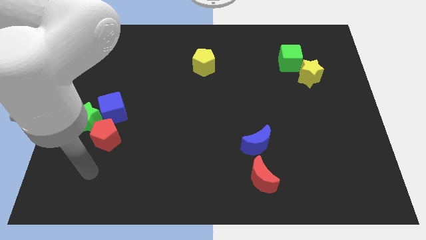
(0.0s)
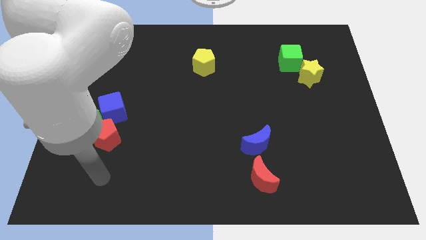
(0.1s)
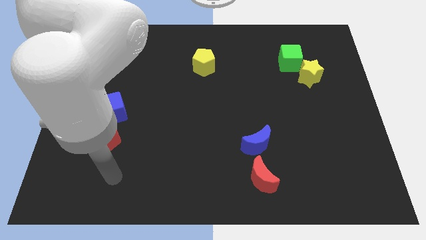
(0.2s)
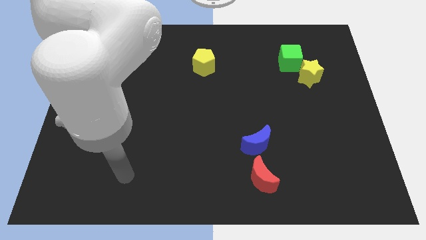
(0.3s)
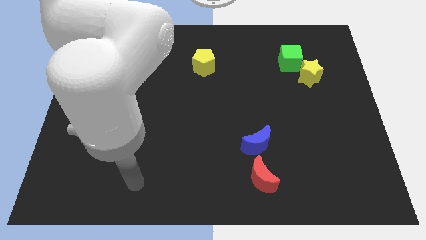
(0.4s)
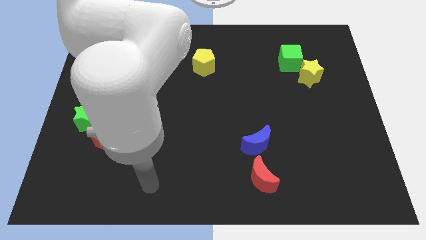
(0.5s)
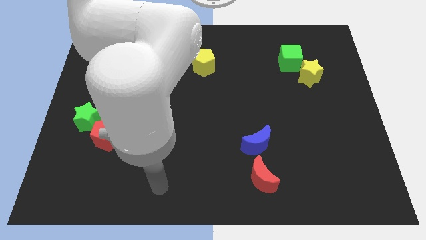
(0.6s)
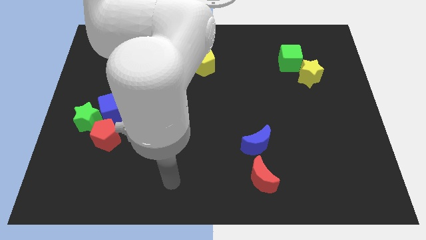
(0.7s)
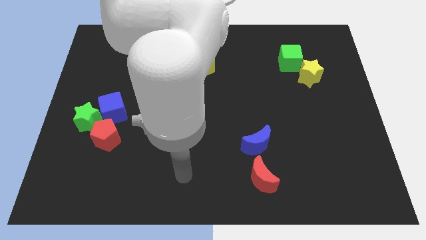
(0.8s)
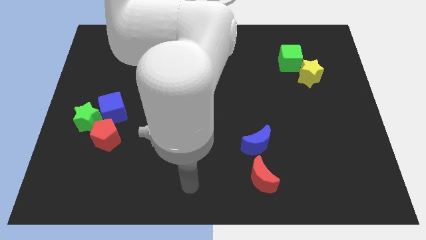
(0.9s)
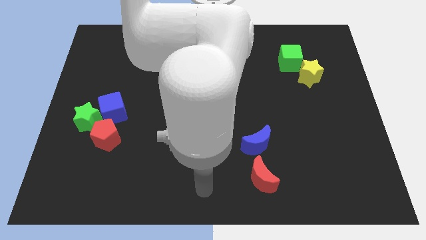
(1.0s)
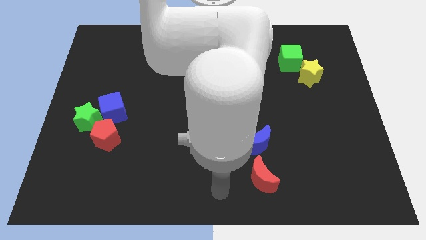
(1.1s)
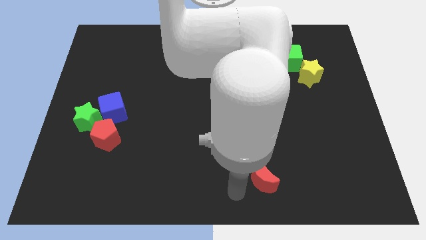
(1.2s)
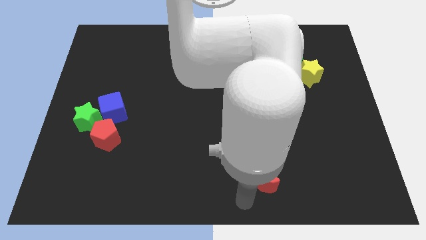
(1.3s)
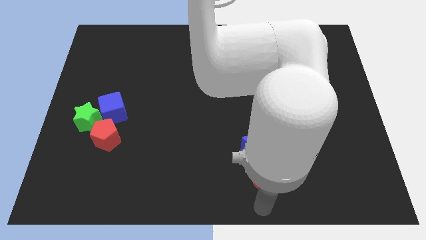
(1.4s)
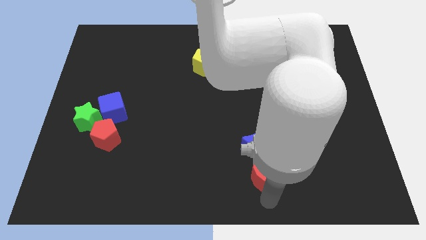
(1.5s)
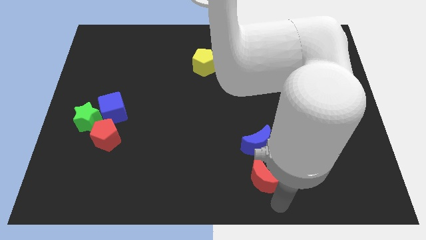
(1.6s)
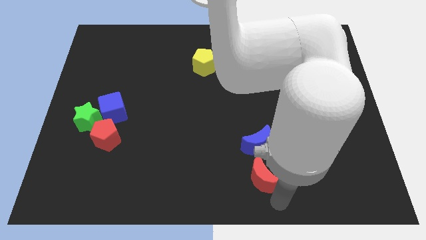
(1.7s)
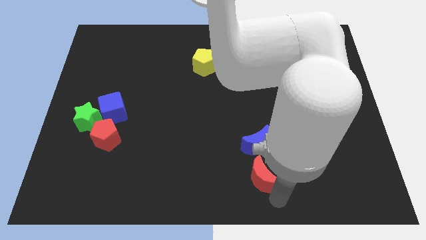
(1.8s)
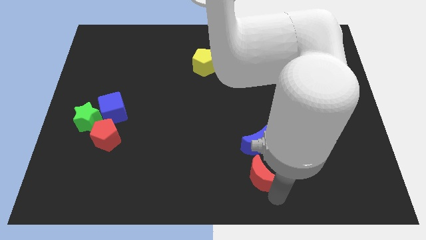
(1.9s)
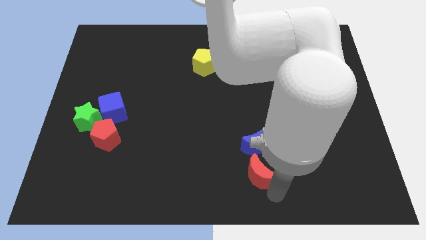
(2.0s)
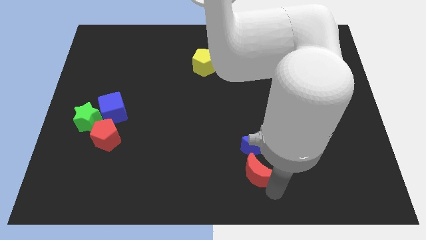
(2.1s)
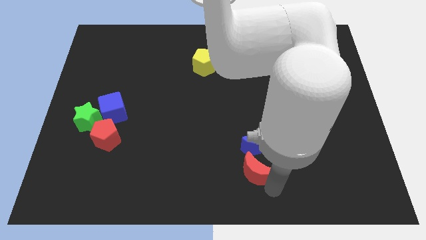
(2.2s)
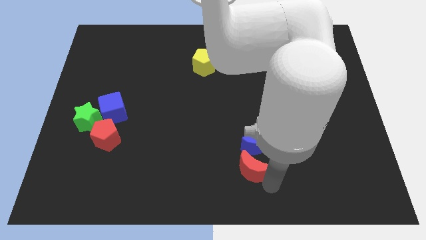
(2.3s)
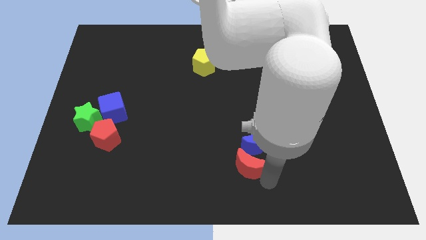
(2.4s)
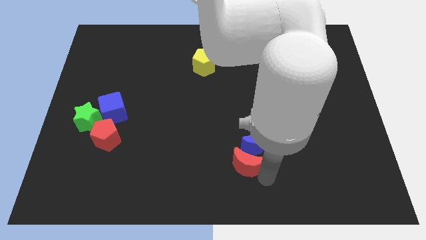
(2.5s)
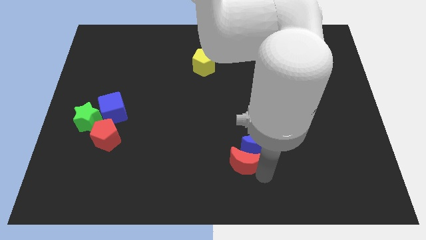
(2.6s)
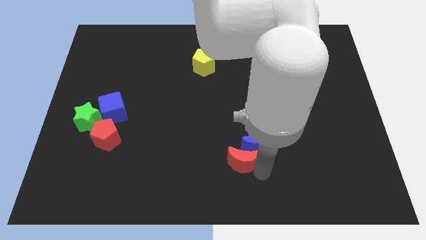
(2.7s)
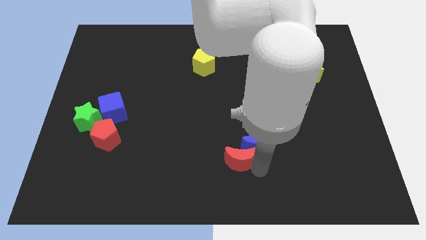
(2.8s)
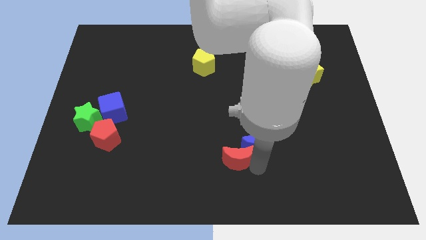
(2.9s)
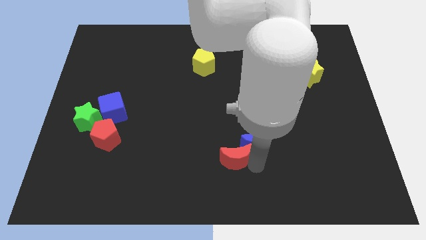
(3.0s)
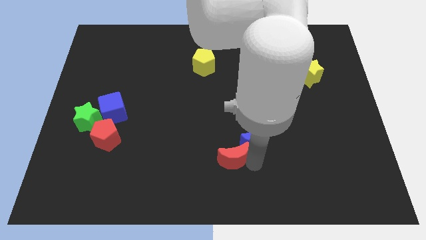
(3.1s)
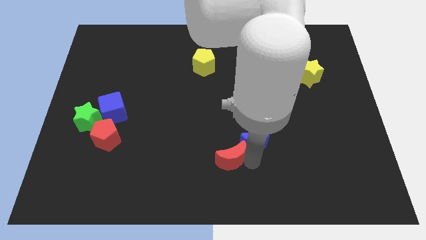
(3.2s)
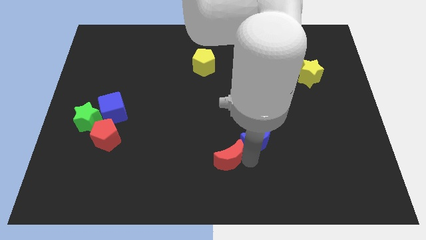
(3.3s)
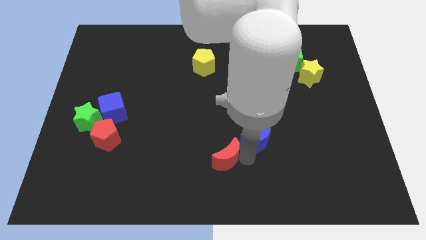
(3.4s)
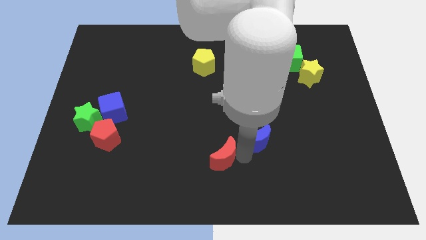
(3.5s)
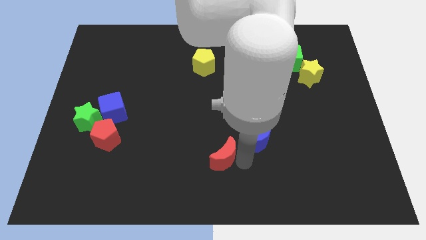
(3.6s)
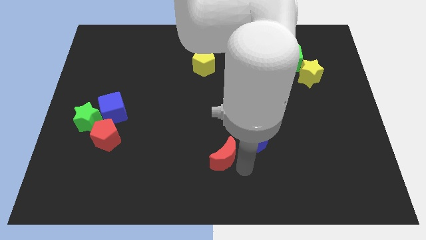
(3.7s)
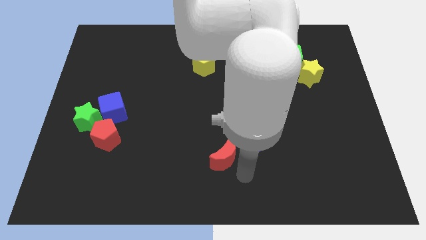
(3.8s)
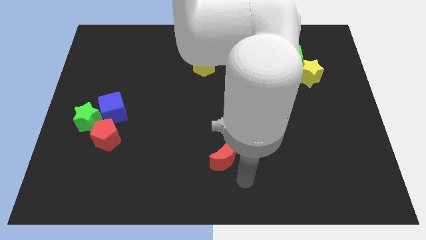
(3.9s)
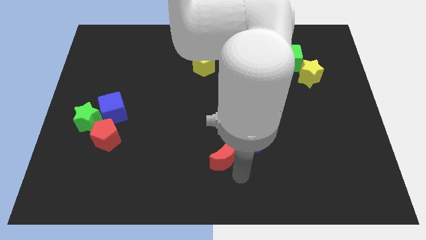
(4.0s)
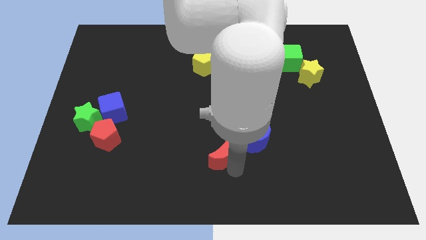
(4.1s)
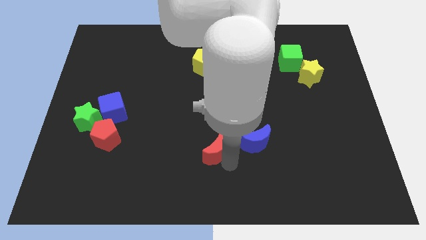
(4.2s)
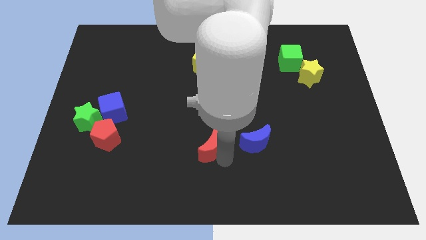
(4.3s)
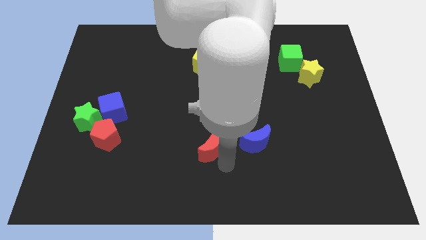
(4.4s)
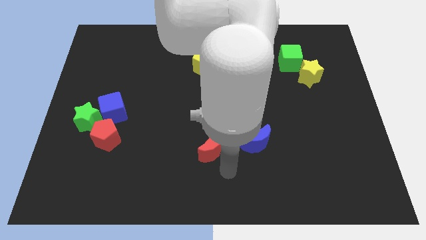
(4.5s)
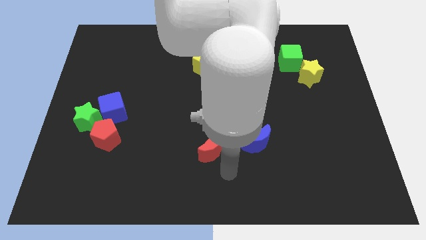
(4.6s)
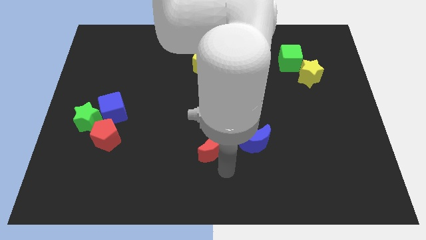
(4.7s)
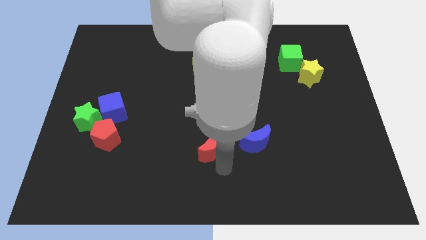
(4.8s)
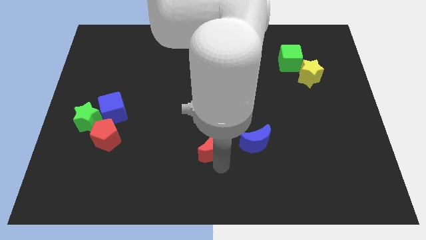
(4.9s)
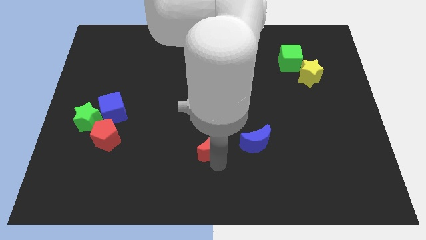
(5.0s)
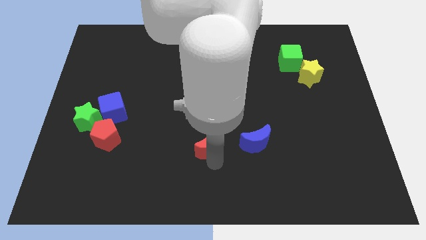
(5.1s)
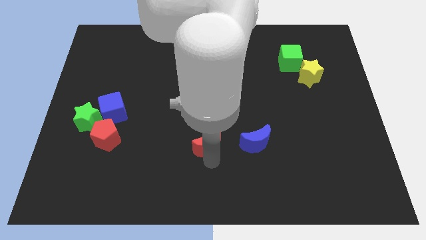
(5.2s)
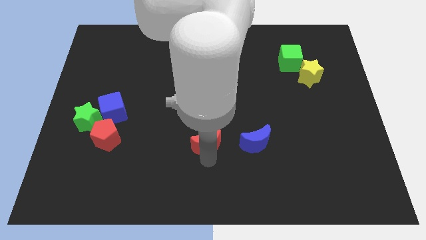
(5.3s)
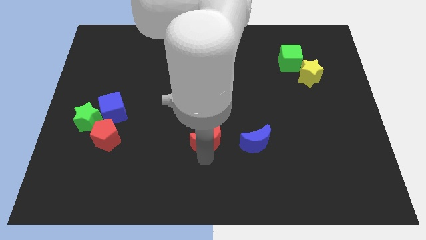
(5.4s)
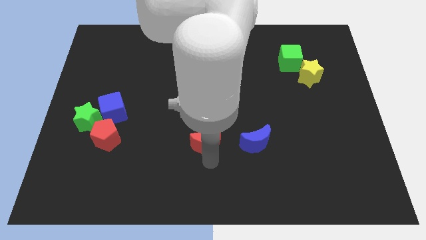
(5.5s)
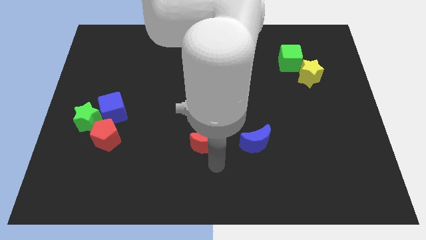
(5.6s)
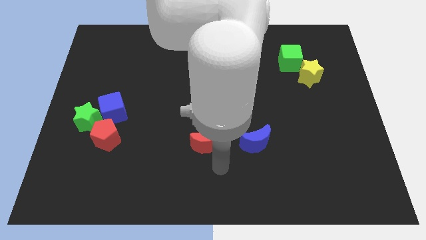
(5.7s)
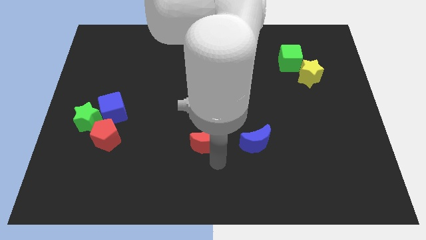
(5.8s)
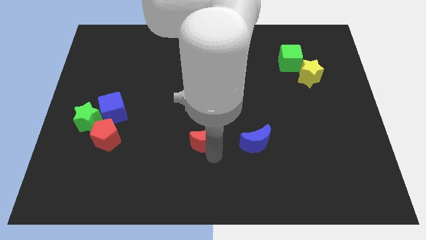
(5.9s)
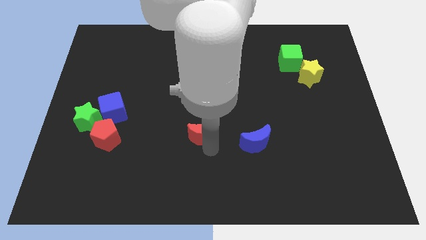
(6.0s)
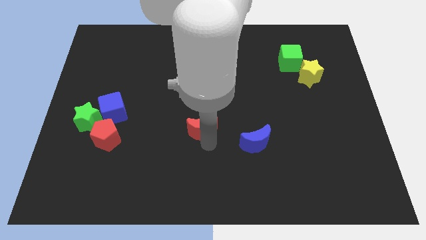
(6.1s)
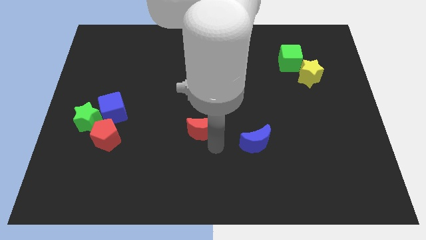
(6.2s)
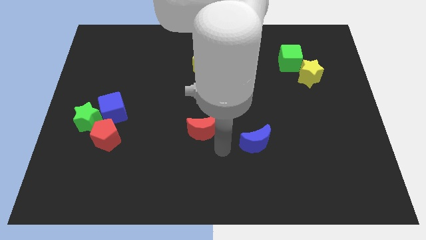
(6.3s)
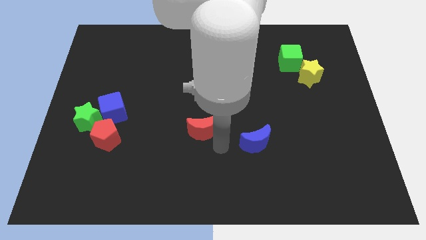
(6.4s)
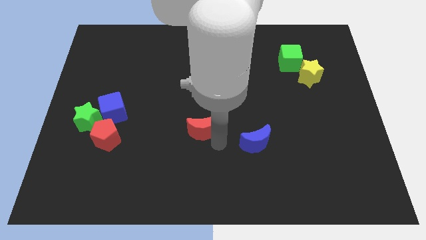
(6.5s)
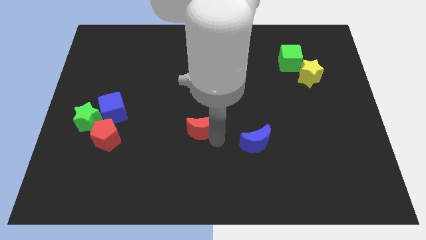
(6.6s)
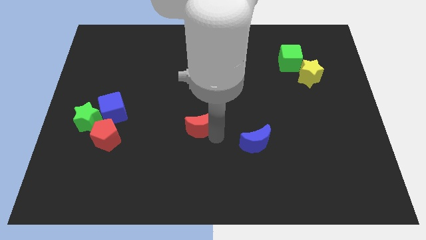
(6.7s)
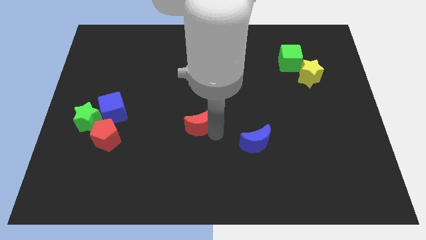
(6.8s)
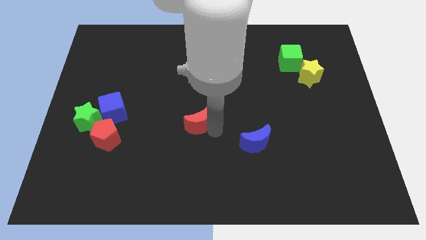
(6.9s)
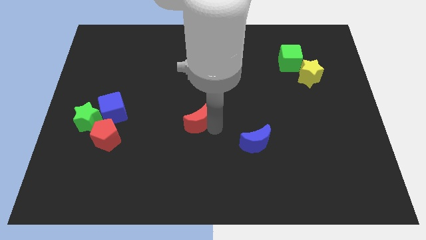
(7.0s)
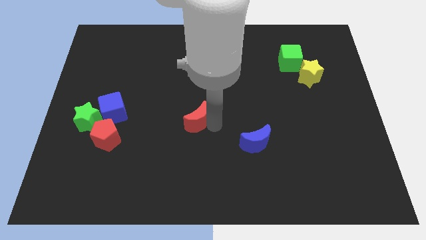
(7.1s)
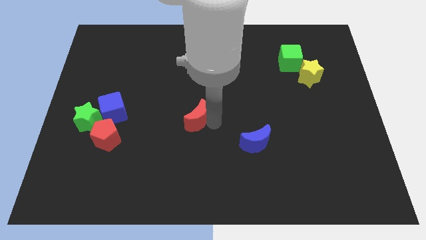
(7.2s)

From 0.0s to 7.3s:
move the red moon diagonally up and left

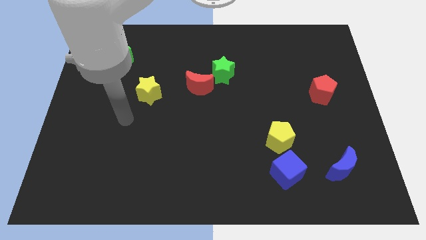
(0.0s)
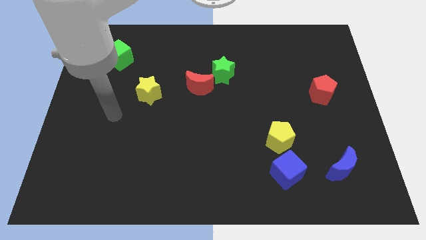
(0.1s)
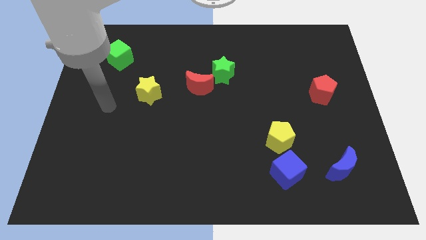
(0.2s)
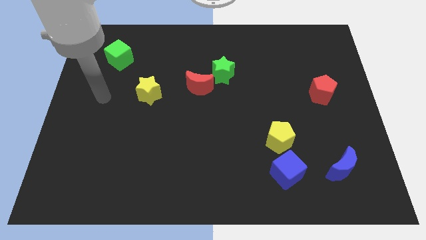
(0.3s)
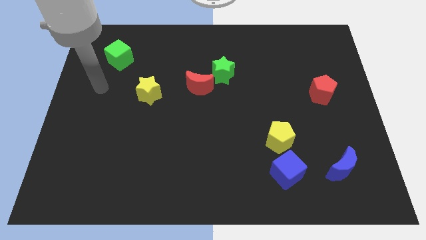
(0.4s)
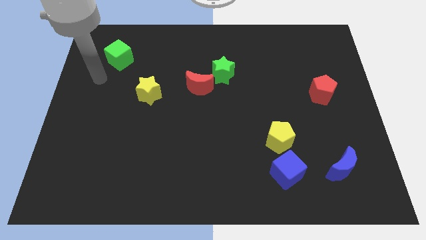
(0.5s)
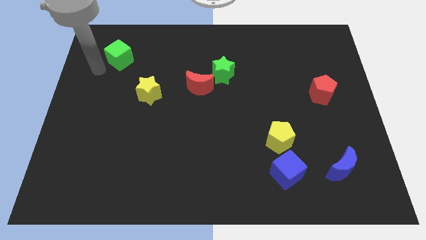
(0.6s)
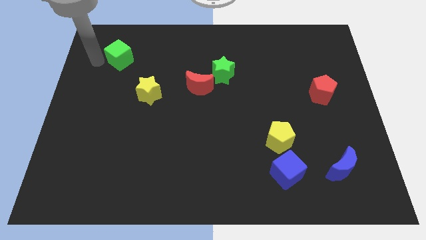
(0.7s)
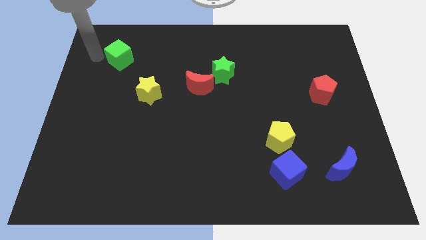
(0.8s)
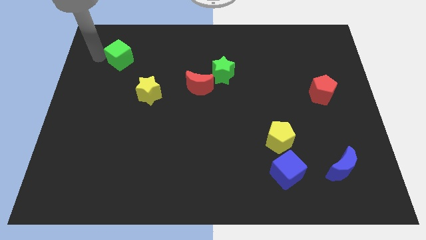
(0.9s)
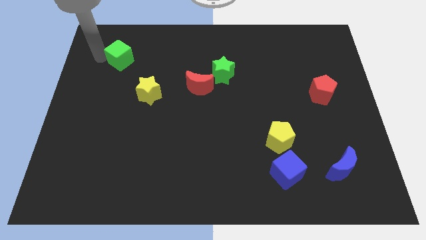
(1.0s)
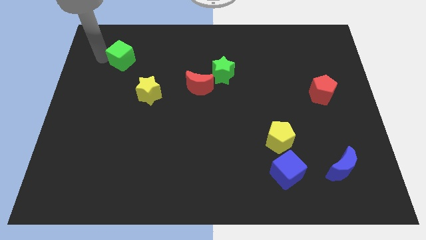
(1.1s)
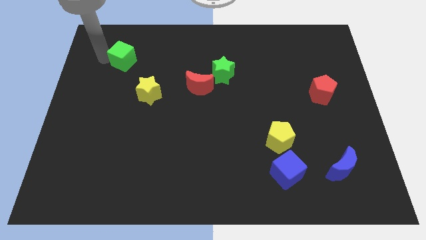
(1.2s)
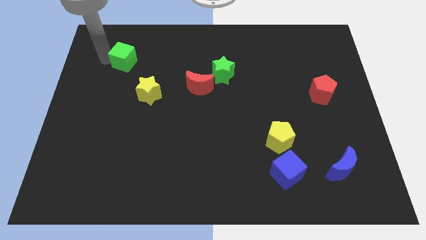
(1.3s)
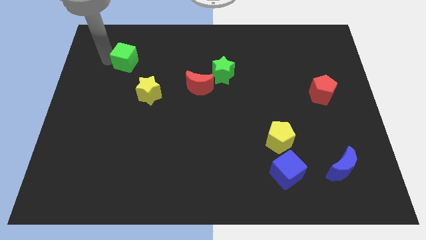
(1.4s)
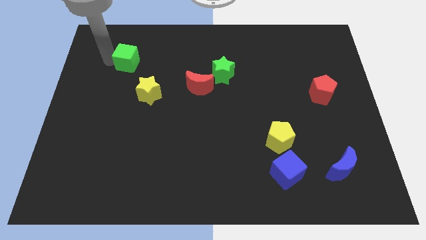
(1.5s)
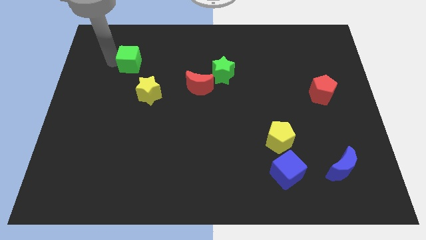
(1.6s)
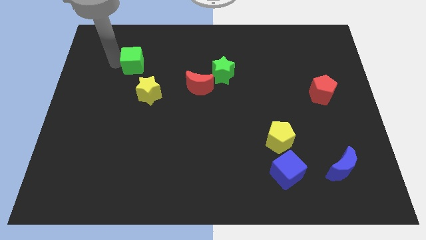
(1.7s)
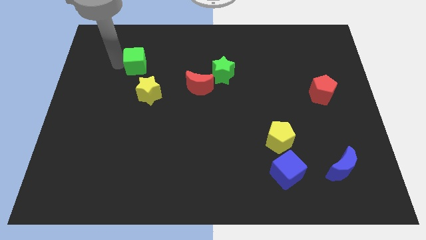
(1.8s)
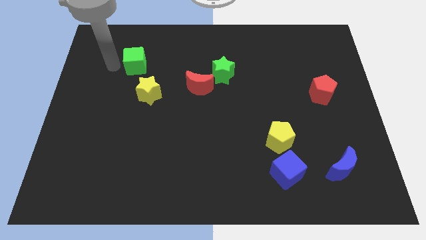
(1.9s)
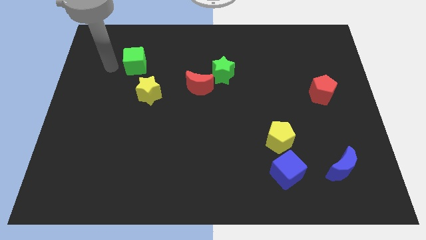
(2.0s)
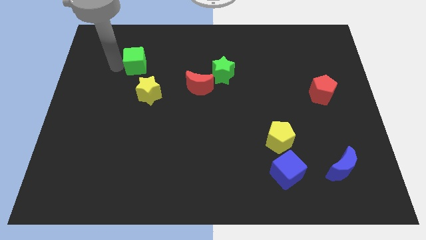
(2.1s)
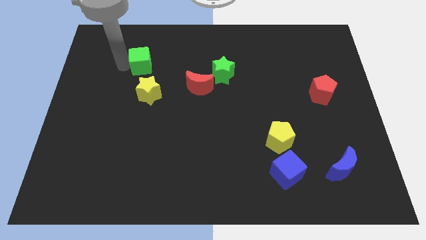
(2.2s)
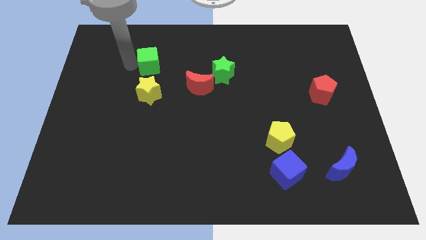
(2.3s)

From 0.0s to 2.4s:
move the green cube right a little bit
